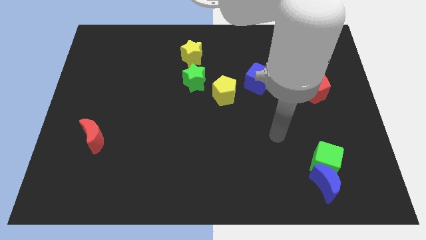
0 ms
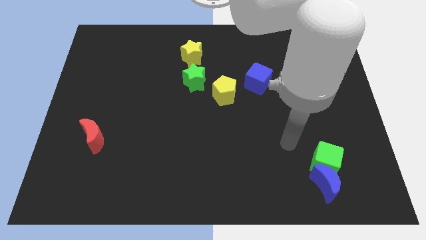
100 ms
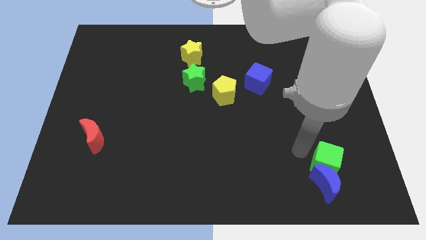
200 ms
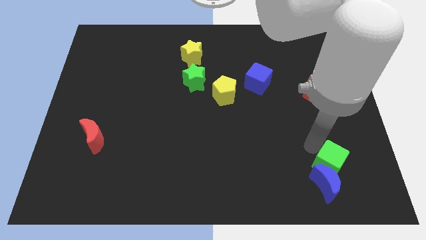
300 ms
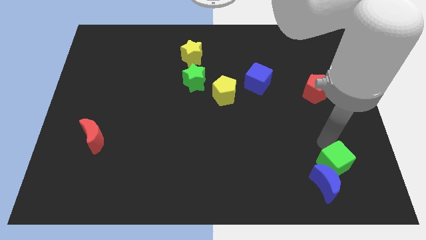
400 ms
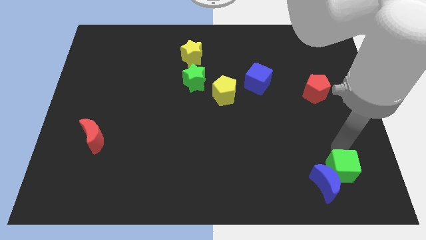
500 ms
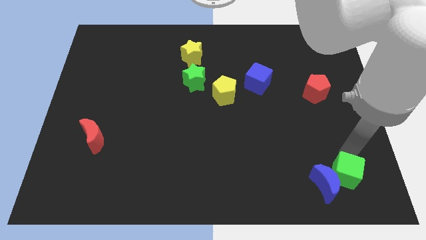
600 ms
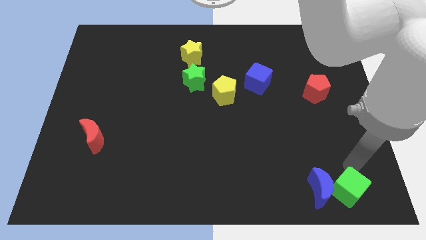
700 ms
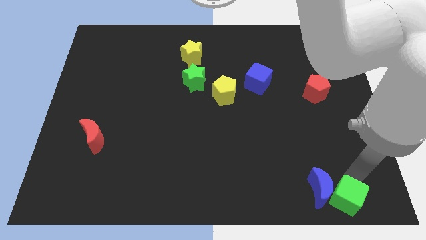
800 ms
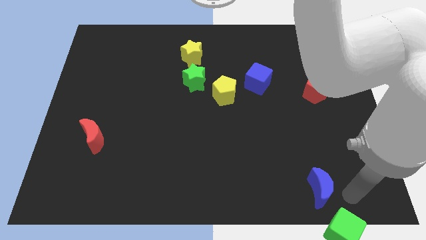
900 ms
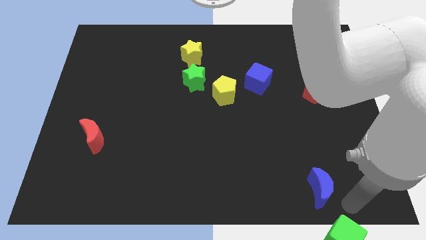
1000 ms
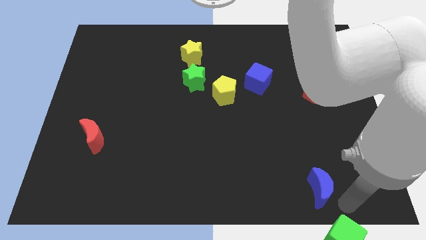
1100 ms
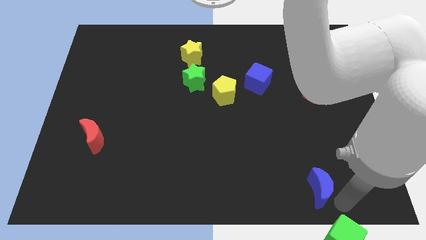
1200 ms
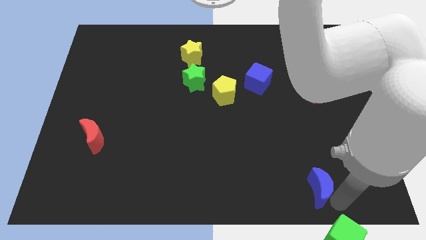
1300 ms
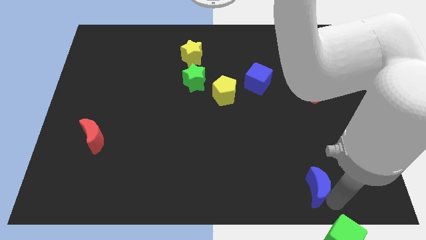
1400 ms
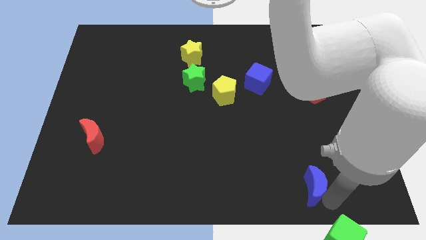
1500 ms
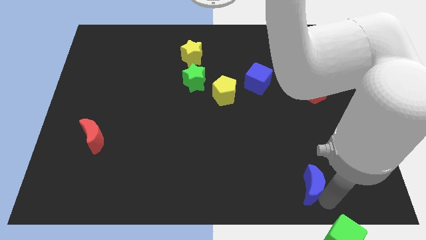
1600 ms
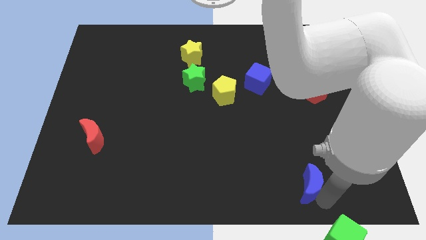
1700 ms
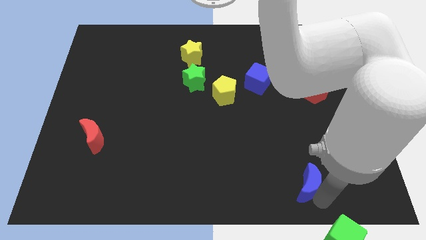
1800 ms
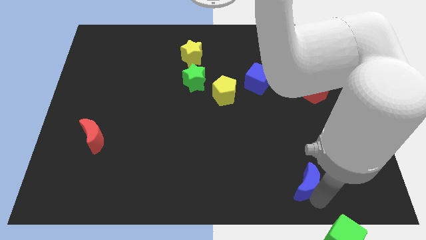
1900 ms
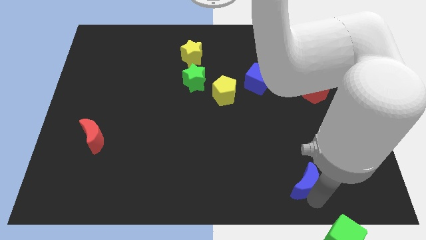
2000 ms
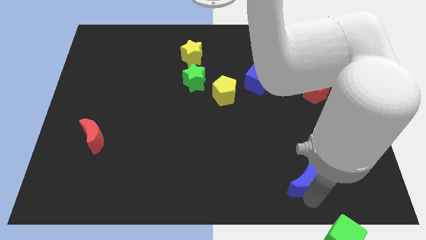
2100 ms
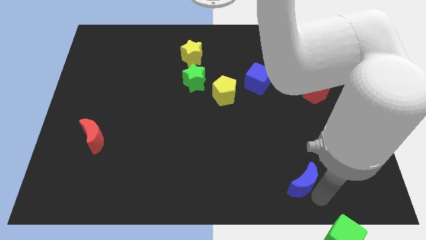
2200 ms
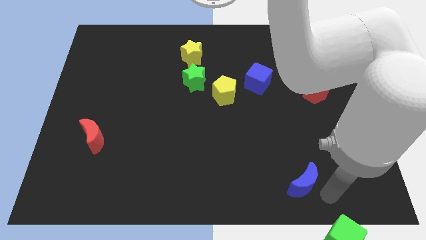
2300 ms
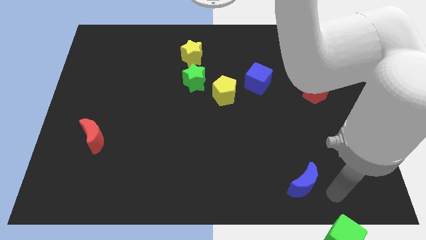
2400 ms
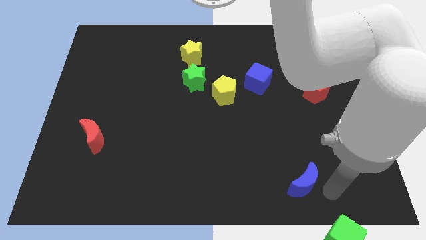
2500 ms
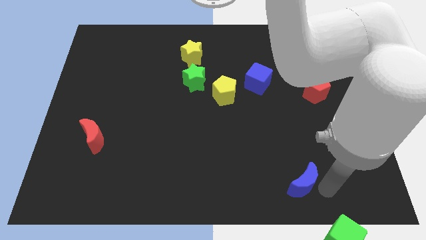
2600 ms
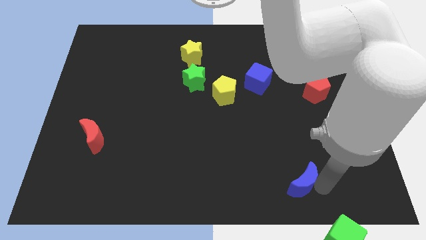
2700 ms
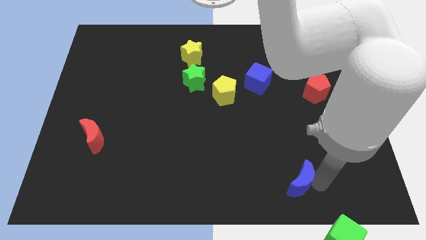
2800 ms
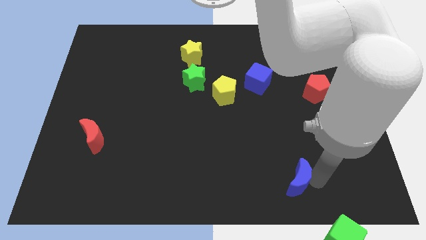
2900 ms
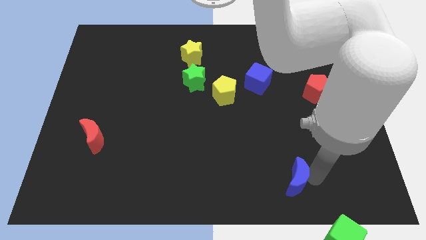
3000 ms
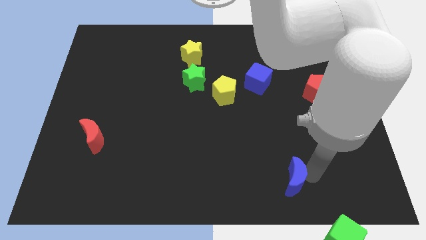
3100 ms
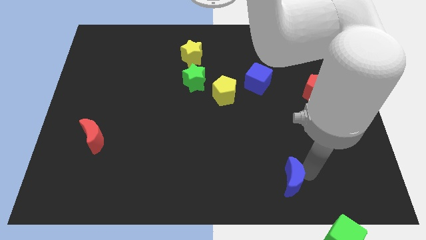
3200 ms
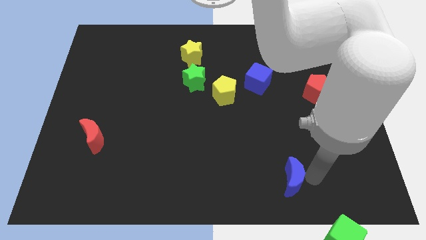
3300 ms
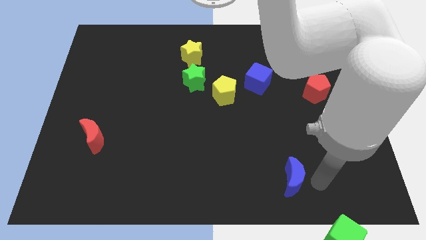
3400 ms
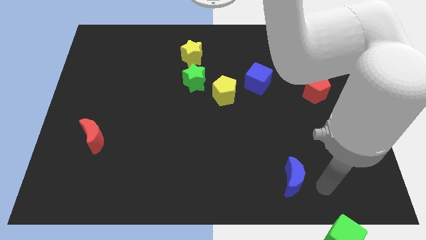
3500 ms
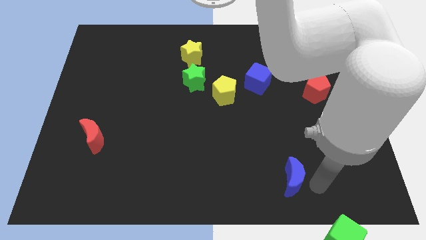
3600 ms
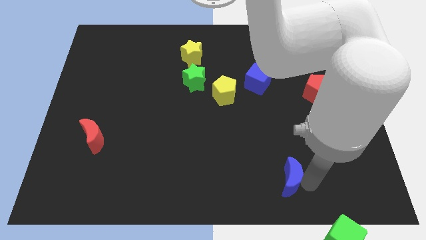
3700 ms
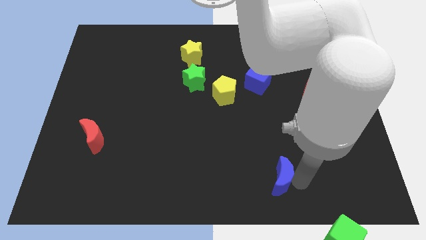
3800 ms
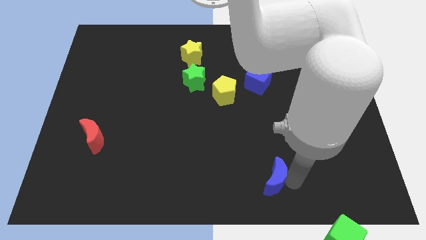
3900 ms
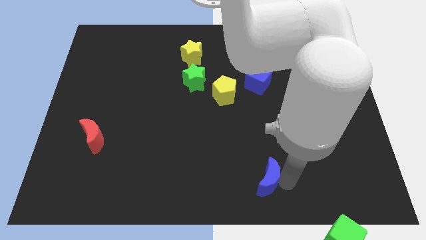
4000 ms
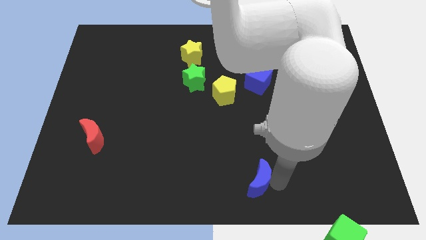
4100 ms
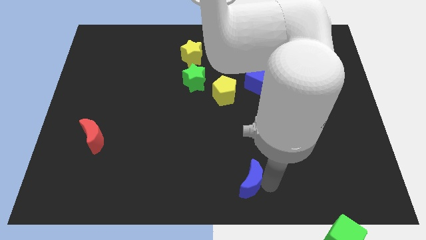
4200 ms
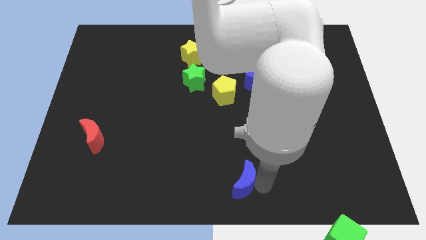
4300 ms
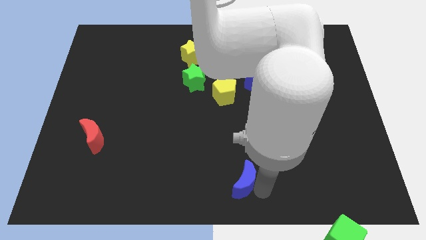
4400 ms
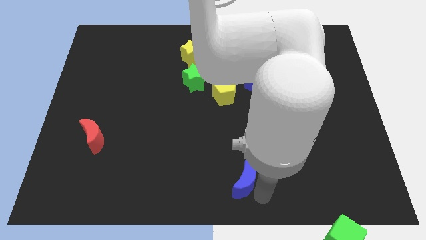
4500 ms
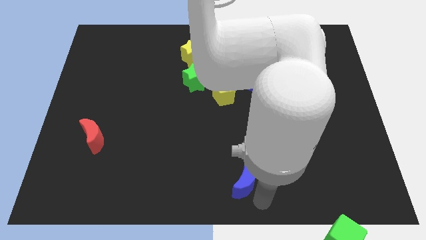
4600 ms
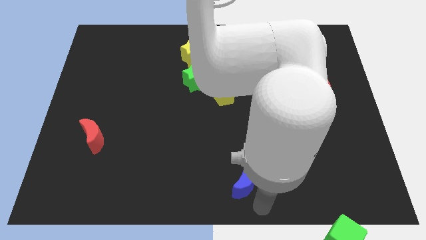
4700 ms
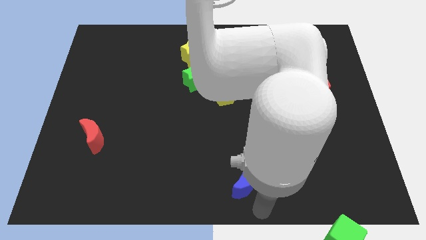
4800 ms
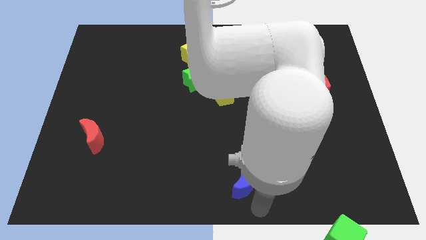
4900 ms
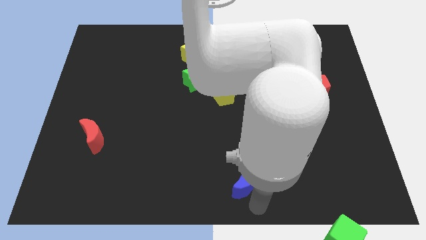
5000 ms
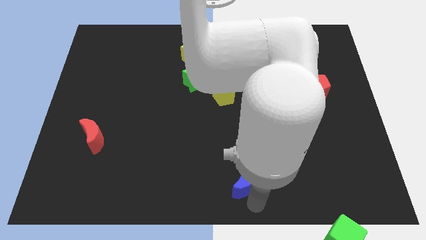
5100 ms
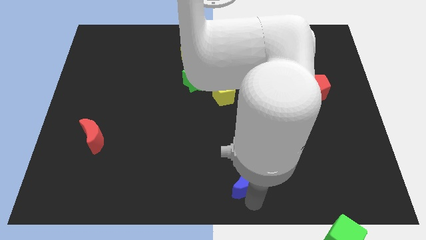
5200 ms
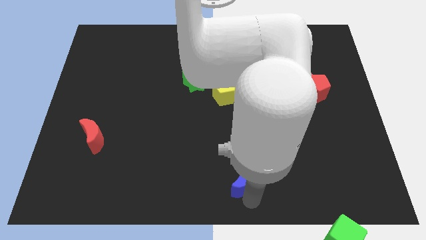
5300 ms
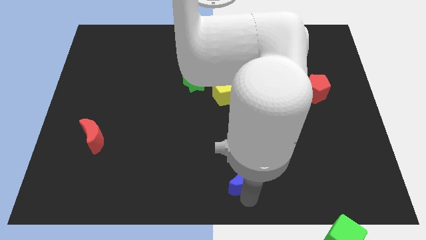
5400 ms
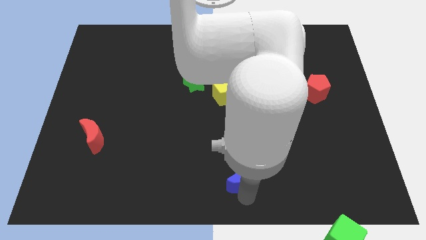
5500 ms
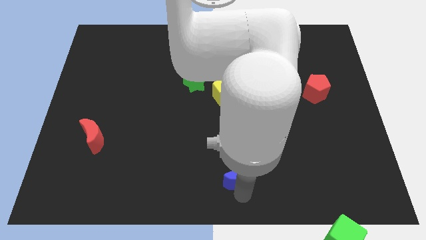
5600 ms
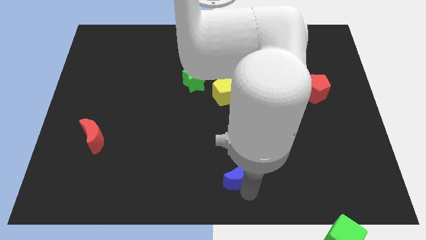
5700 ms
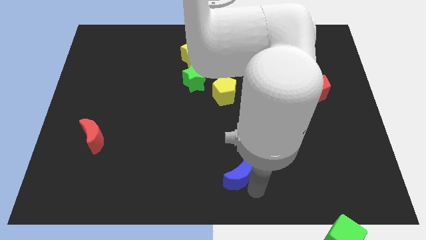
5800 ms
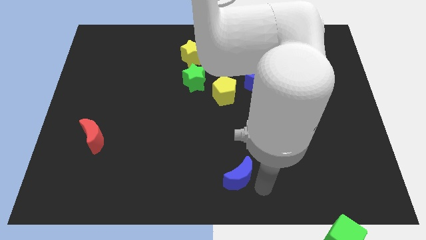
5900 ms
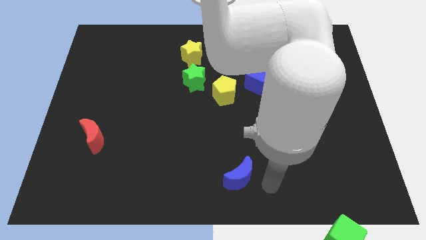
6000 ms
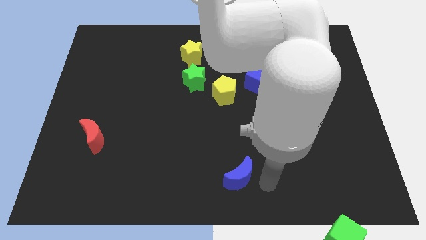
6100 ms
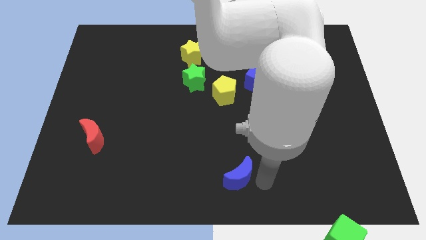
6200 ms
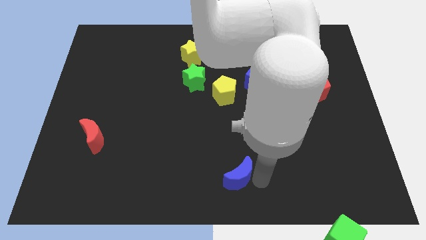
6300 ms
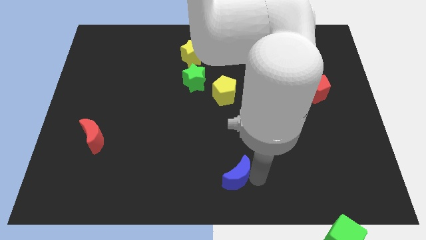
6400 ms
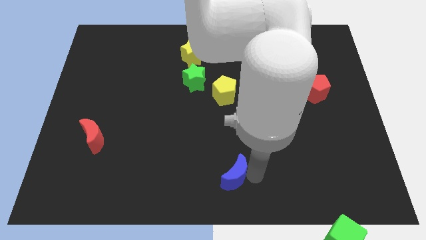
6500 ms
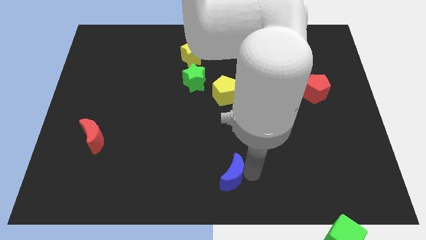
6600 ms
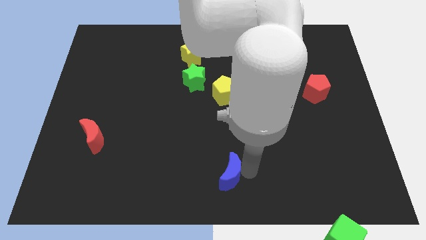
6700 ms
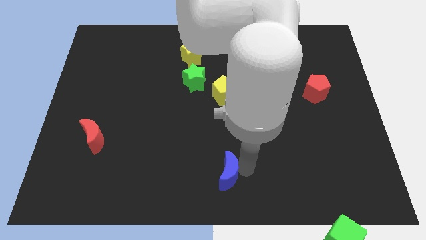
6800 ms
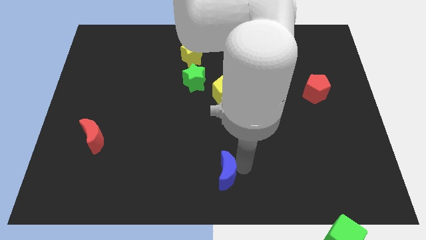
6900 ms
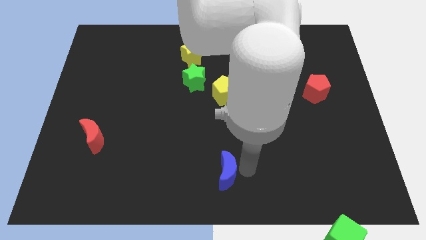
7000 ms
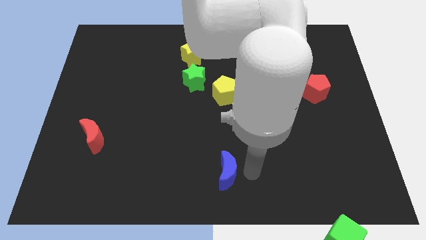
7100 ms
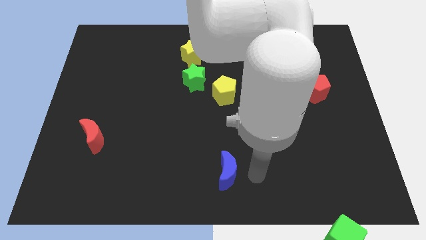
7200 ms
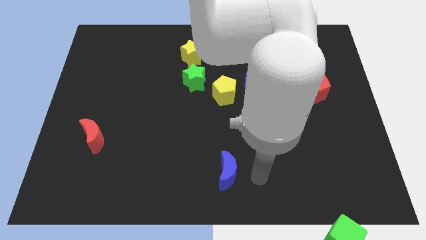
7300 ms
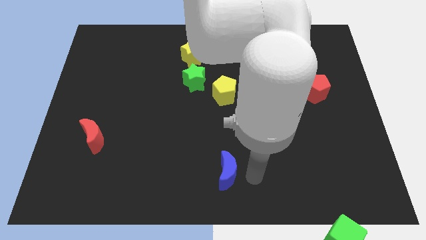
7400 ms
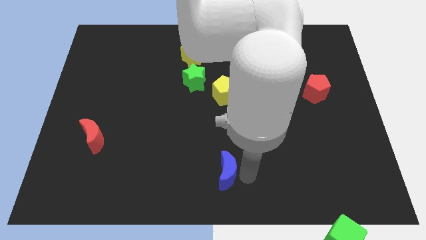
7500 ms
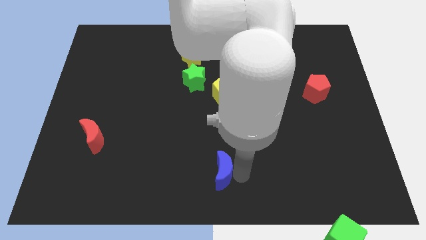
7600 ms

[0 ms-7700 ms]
slide the blue moon to the left

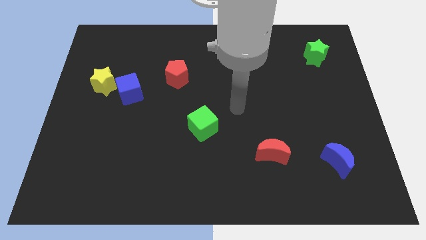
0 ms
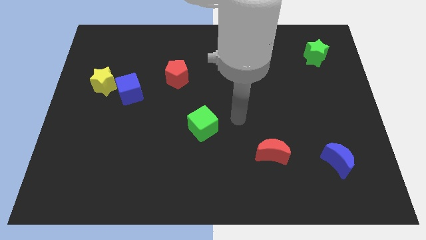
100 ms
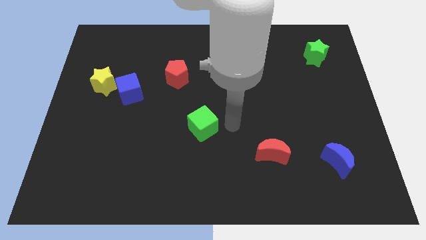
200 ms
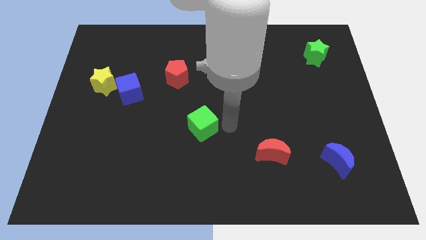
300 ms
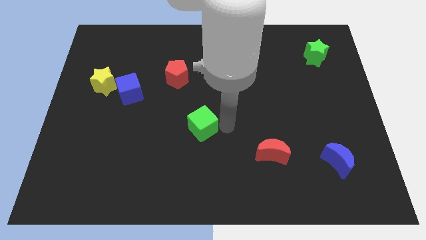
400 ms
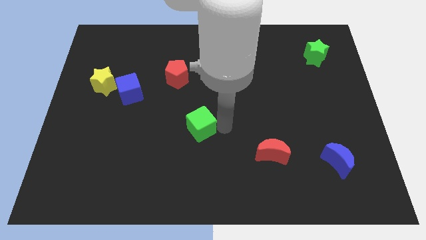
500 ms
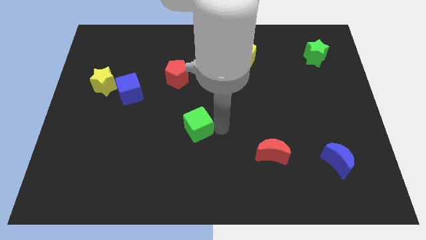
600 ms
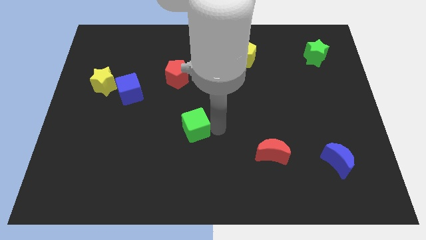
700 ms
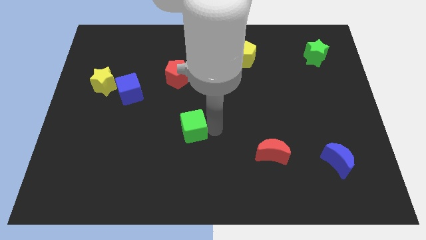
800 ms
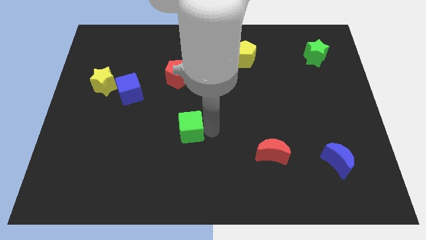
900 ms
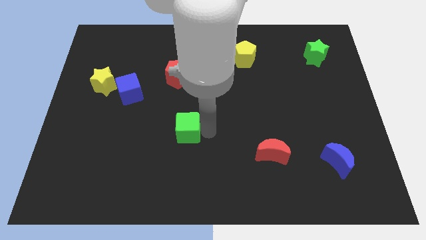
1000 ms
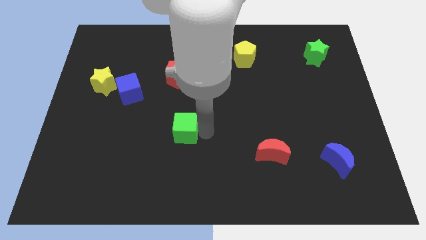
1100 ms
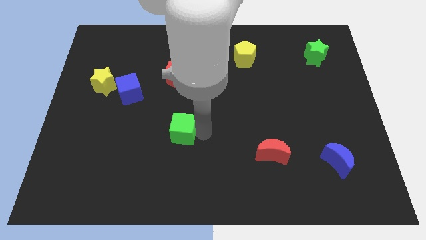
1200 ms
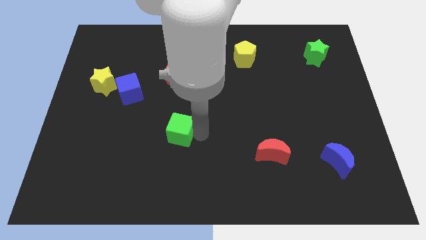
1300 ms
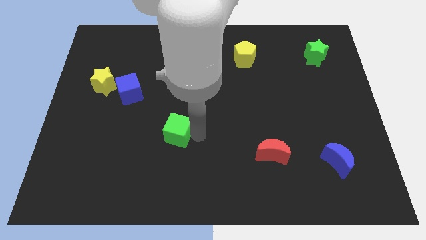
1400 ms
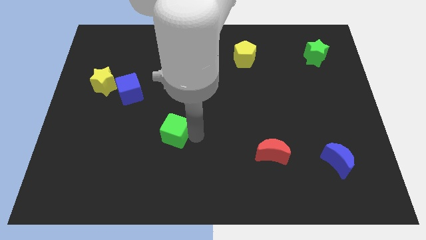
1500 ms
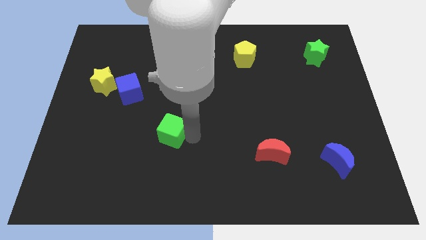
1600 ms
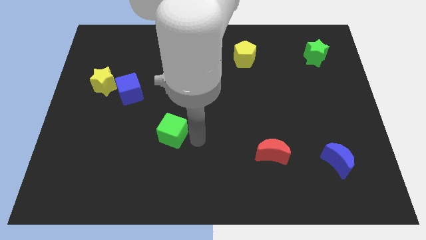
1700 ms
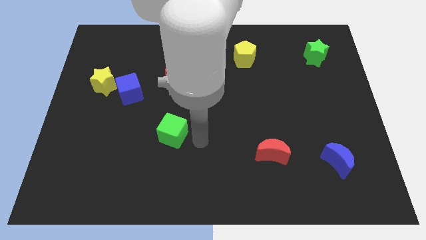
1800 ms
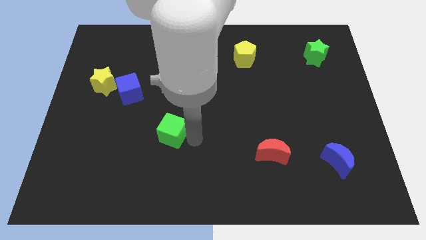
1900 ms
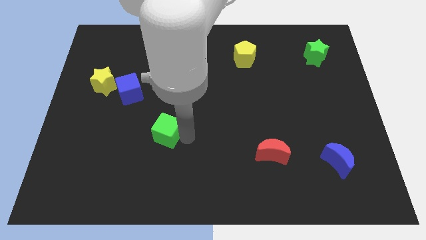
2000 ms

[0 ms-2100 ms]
slightly move the green cube left
